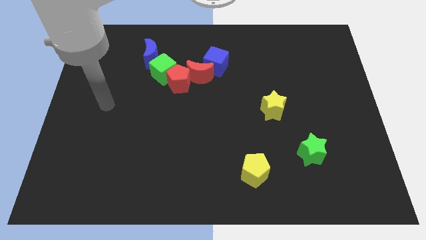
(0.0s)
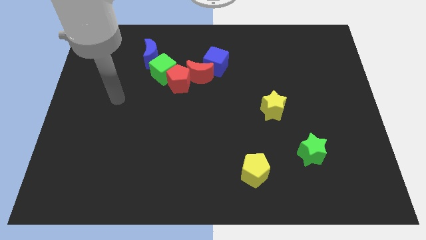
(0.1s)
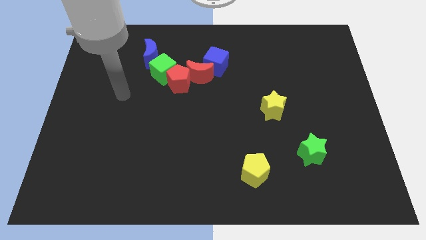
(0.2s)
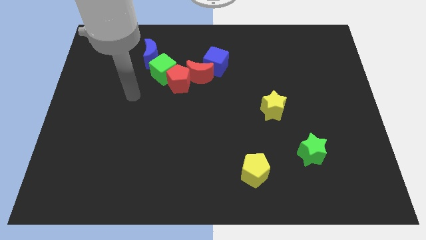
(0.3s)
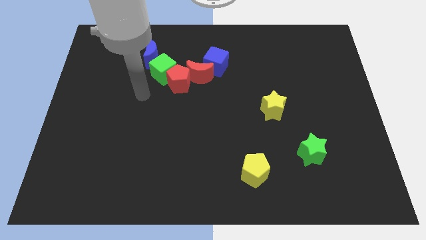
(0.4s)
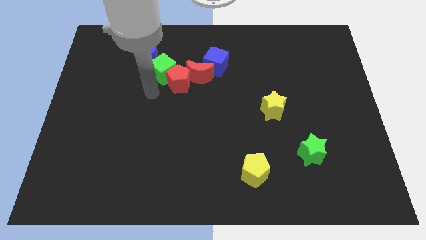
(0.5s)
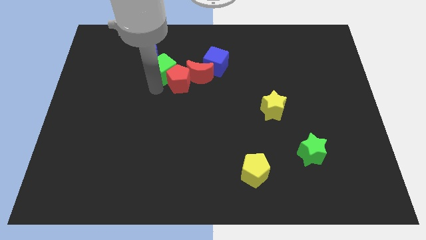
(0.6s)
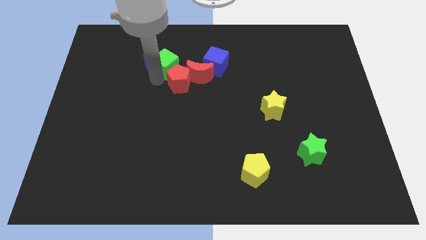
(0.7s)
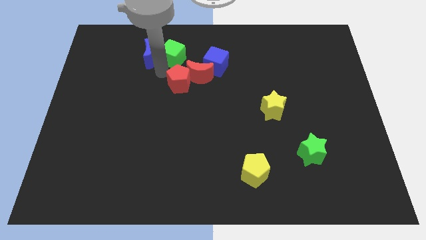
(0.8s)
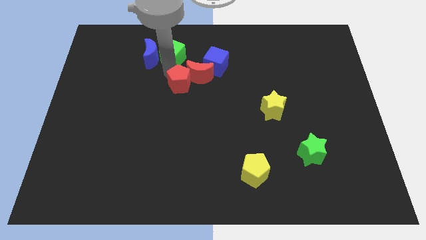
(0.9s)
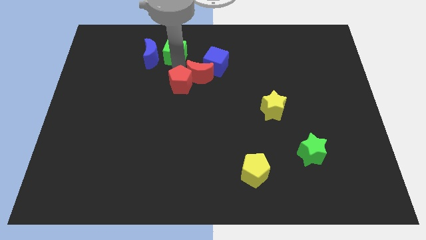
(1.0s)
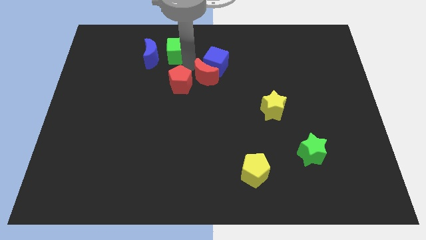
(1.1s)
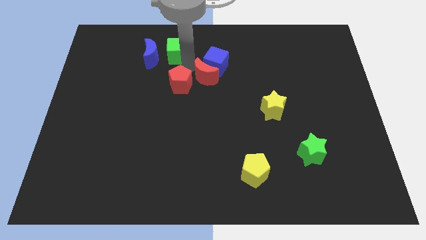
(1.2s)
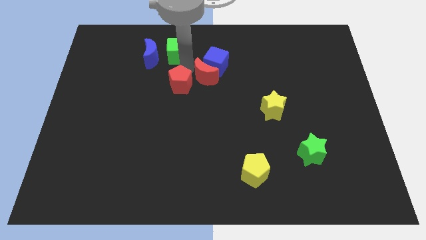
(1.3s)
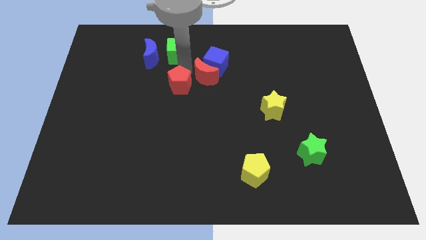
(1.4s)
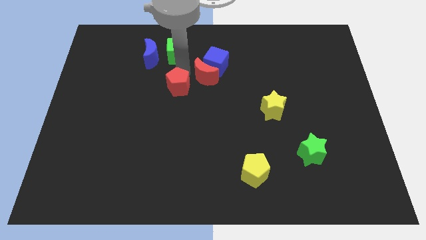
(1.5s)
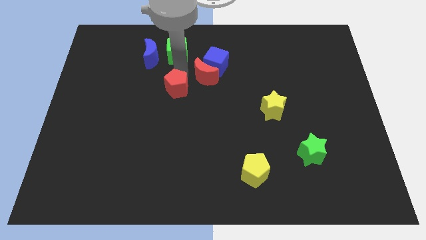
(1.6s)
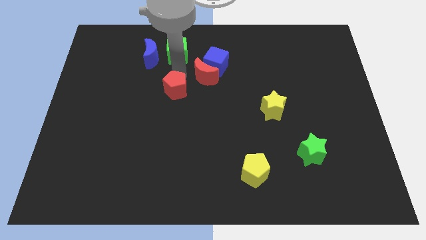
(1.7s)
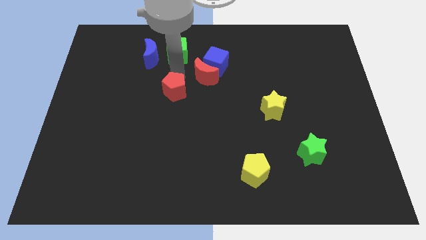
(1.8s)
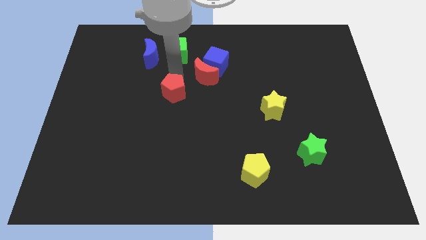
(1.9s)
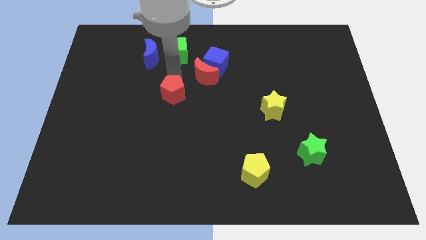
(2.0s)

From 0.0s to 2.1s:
move the red pentagon away from the green cube and red moon

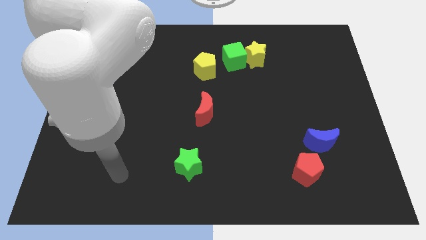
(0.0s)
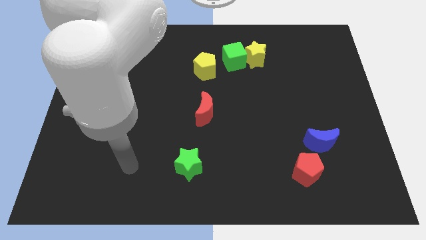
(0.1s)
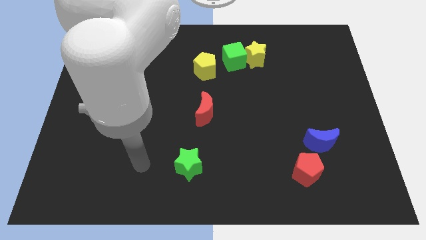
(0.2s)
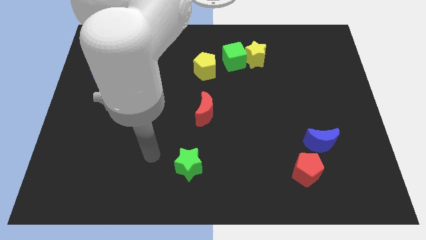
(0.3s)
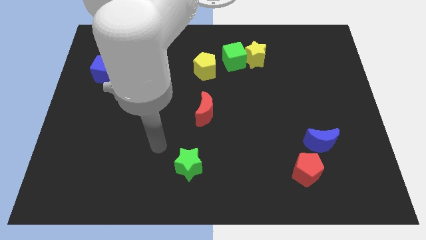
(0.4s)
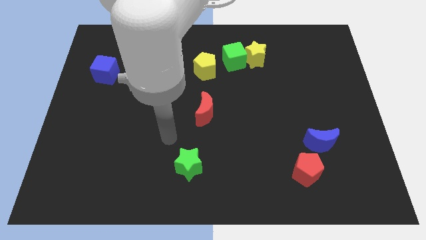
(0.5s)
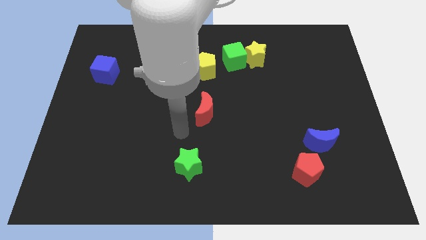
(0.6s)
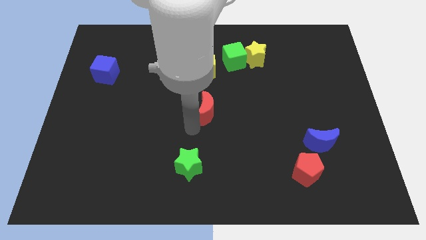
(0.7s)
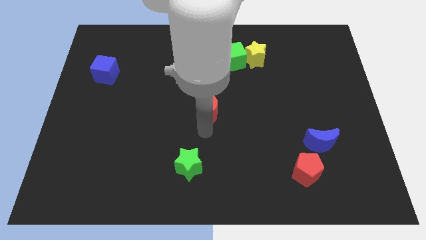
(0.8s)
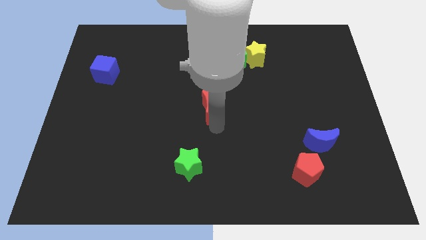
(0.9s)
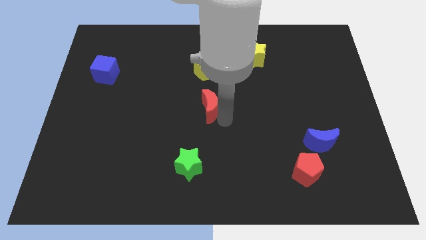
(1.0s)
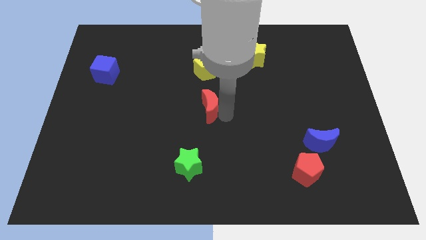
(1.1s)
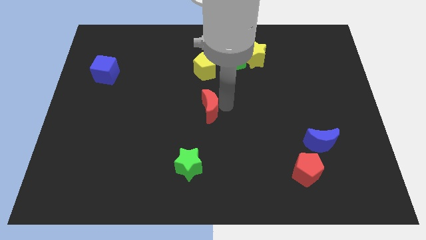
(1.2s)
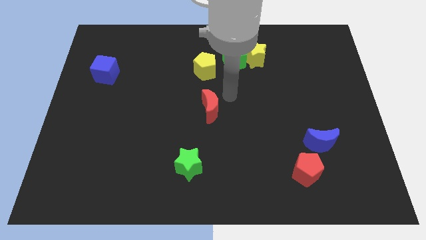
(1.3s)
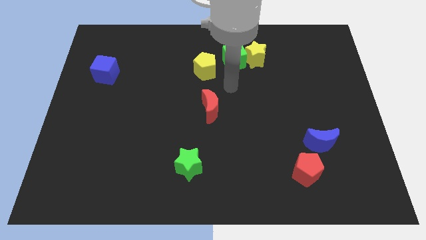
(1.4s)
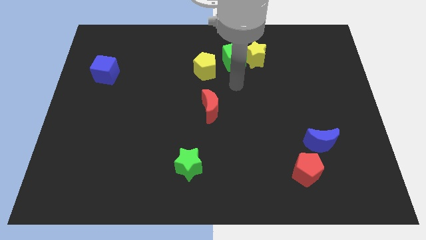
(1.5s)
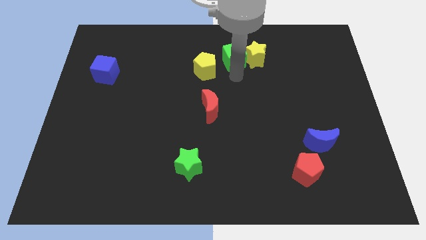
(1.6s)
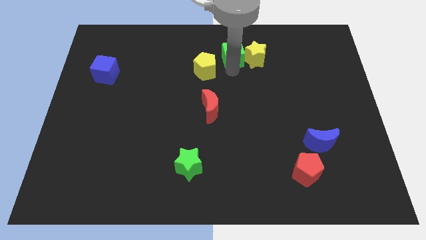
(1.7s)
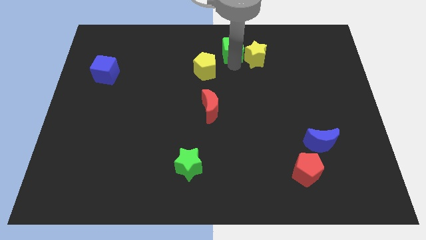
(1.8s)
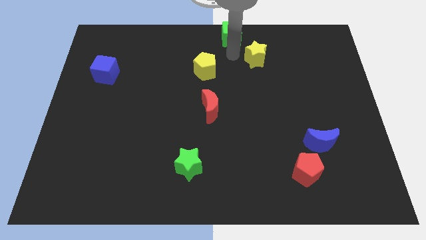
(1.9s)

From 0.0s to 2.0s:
separate the yellow star from the green cube

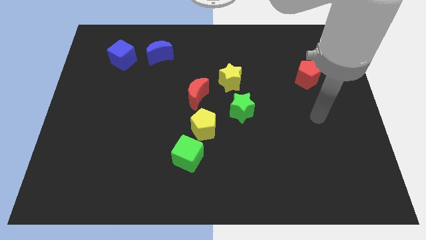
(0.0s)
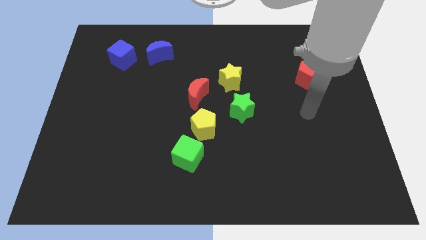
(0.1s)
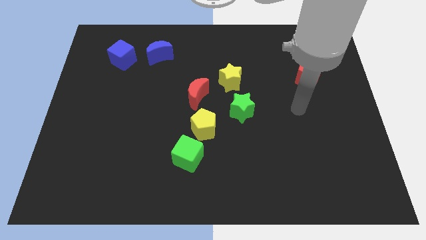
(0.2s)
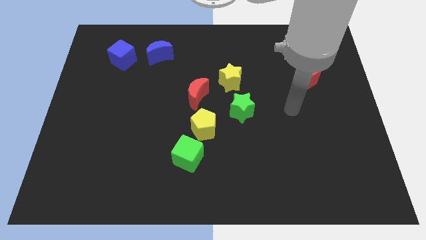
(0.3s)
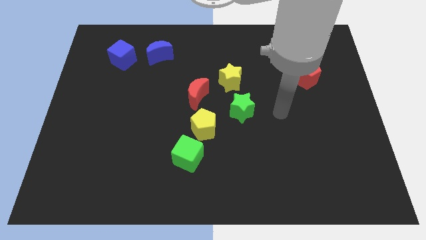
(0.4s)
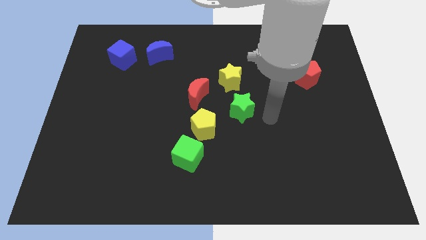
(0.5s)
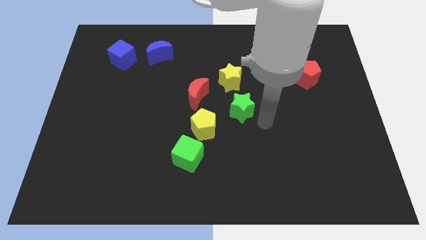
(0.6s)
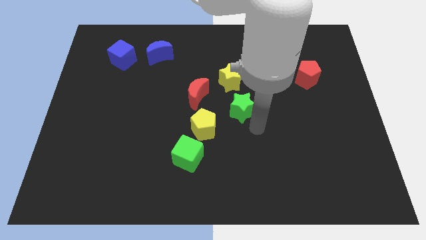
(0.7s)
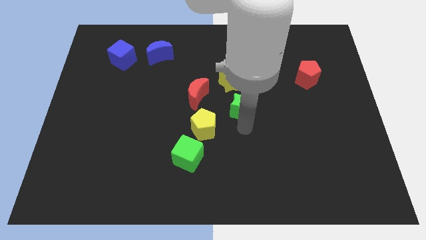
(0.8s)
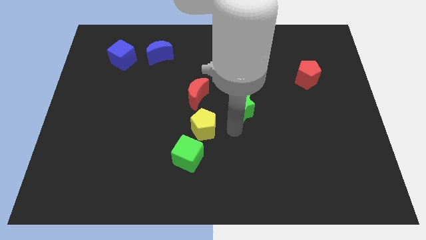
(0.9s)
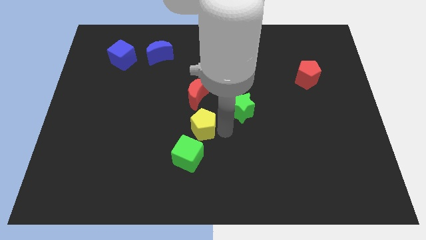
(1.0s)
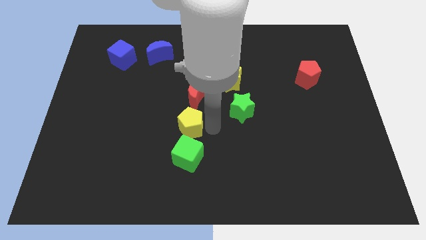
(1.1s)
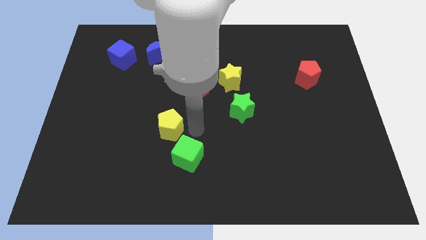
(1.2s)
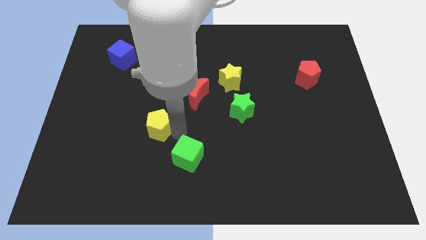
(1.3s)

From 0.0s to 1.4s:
pull the green cube apart from the yellow pentagon

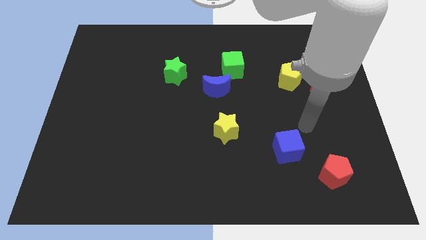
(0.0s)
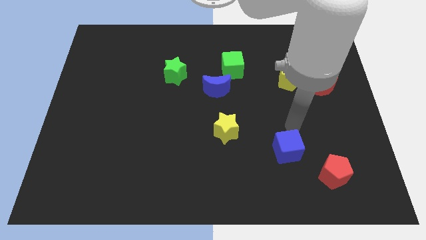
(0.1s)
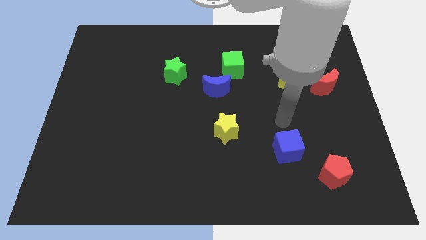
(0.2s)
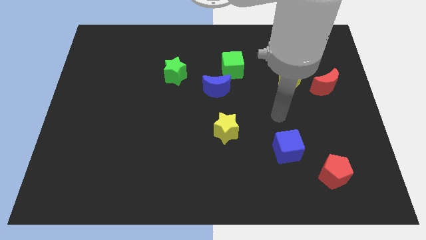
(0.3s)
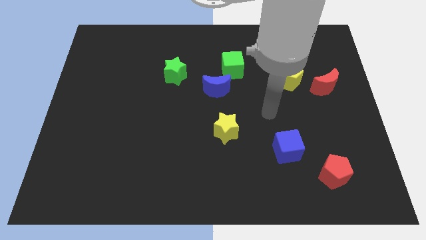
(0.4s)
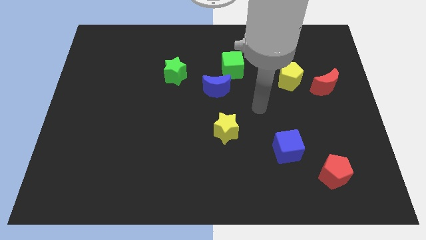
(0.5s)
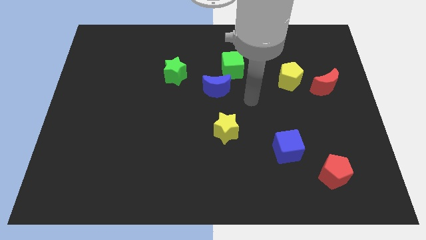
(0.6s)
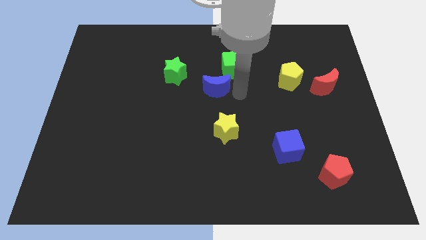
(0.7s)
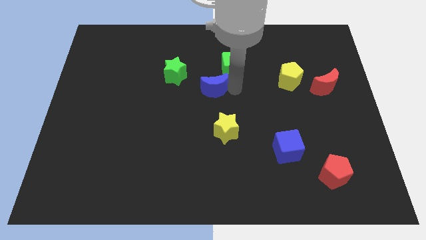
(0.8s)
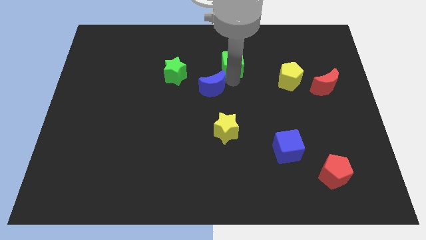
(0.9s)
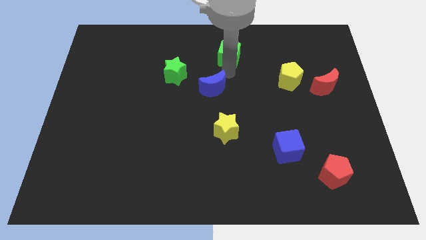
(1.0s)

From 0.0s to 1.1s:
move the blue moon away from the green cube

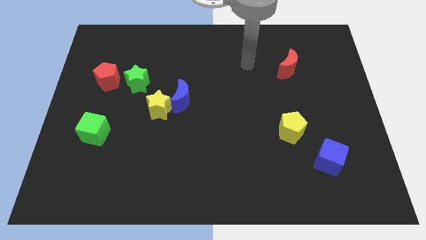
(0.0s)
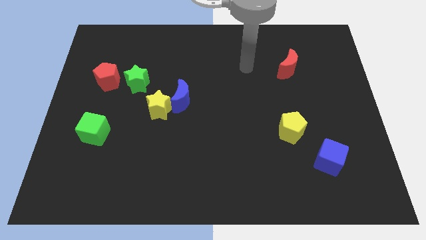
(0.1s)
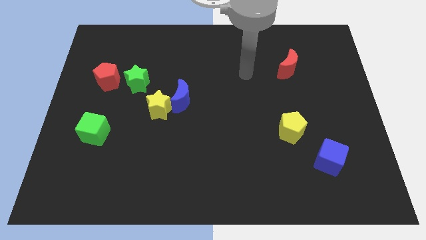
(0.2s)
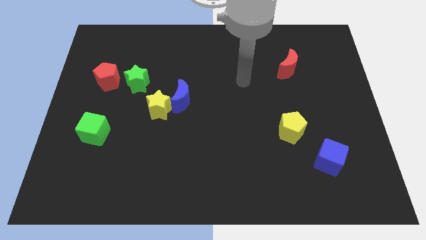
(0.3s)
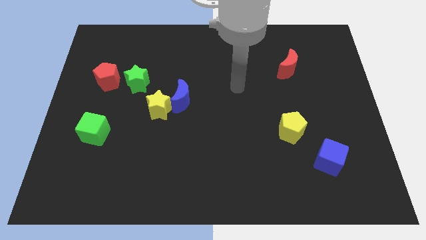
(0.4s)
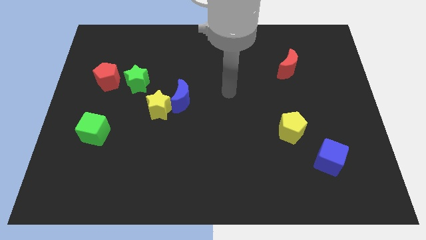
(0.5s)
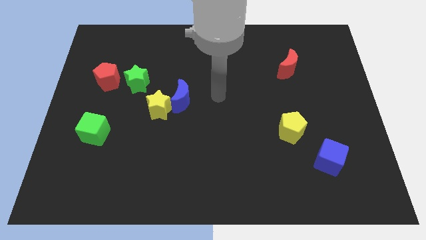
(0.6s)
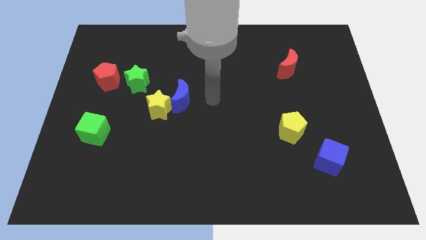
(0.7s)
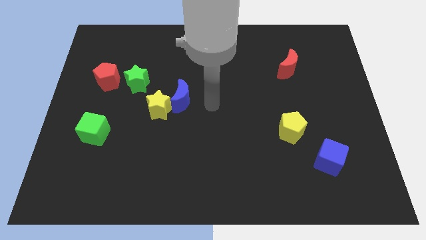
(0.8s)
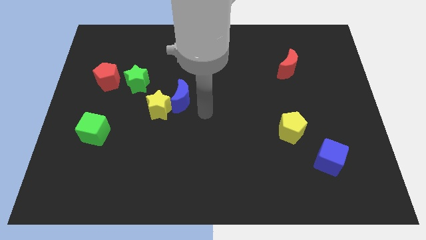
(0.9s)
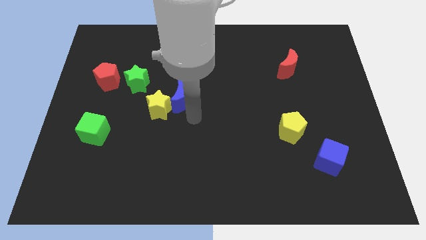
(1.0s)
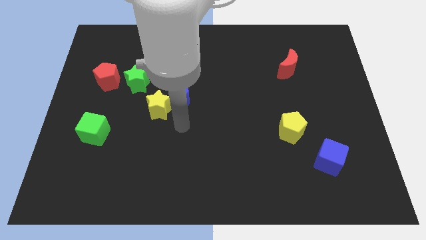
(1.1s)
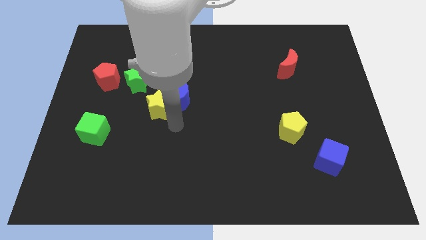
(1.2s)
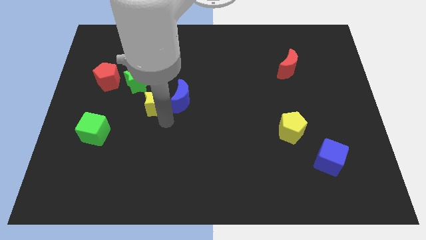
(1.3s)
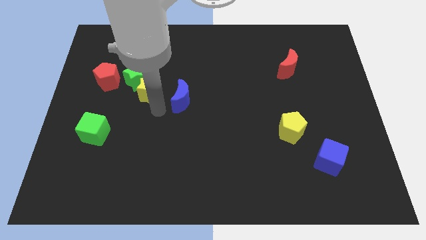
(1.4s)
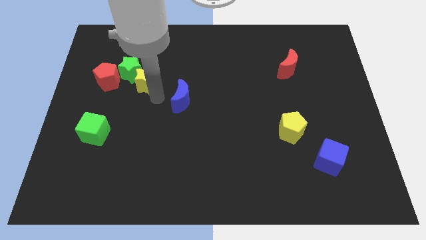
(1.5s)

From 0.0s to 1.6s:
separate the blue moon from the yellow star

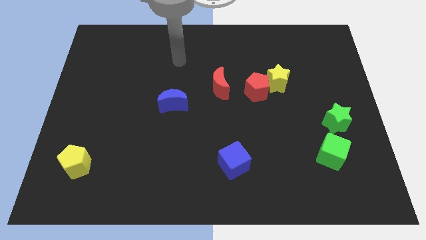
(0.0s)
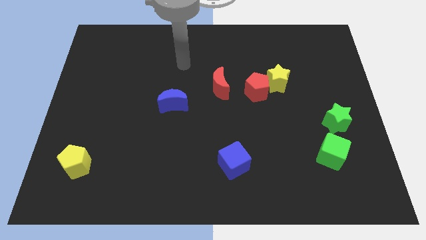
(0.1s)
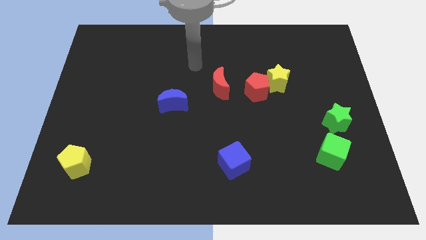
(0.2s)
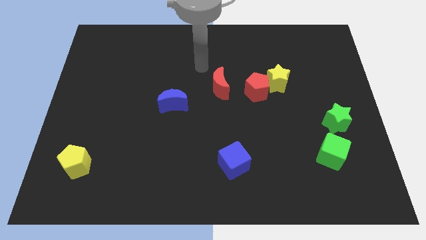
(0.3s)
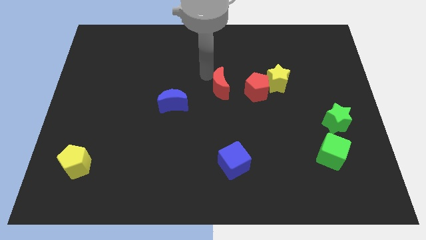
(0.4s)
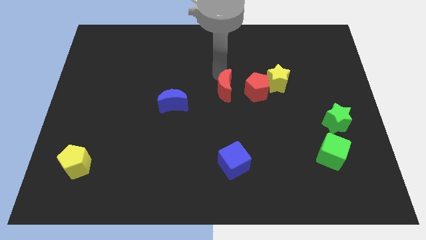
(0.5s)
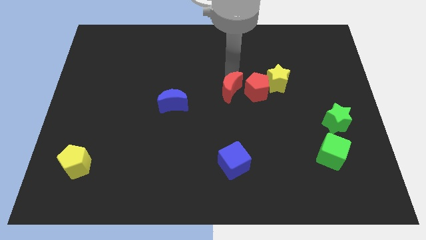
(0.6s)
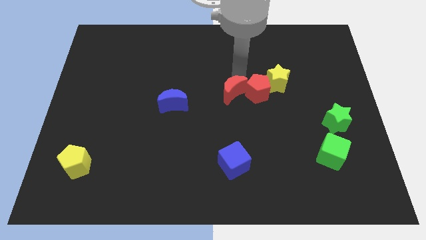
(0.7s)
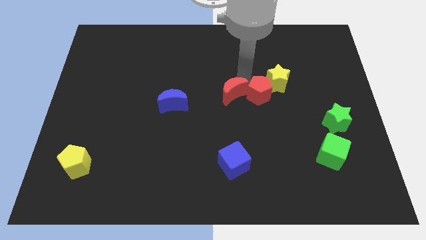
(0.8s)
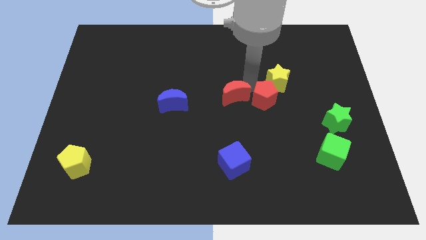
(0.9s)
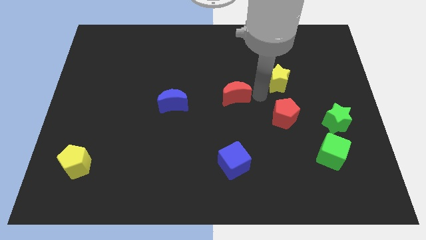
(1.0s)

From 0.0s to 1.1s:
move the yellow star away from the red pentagon
